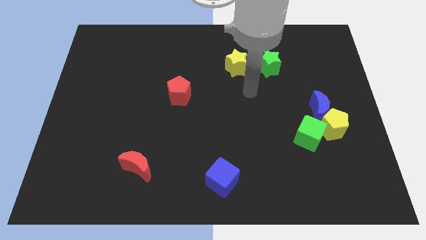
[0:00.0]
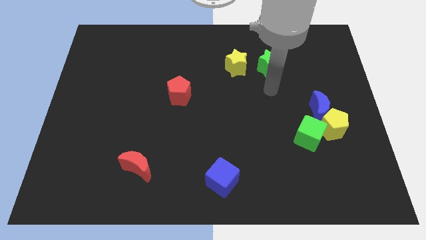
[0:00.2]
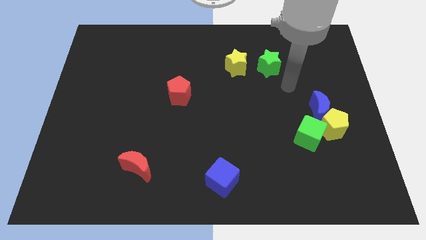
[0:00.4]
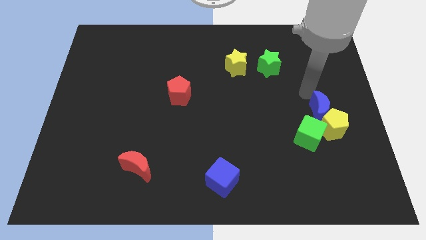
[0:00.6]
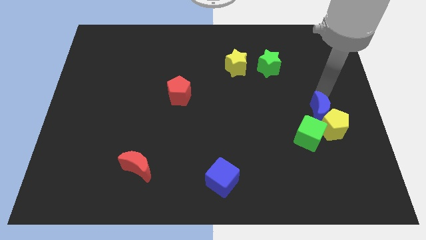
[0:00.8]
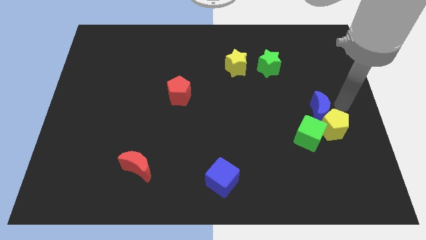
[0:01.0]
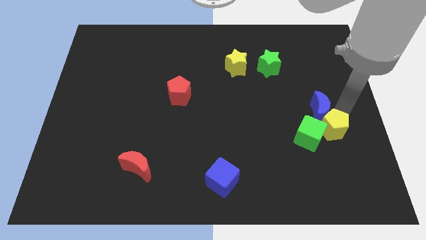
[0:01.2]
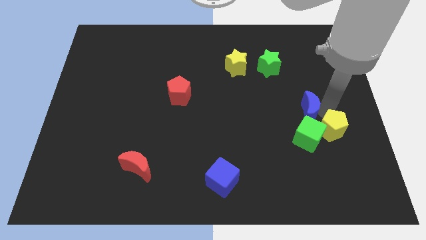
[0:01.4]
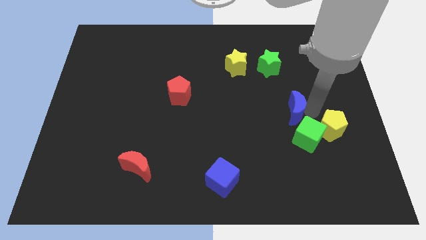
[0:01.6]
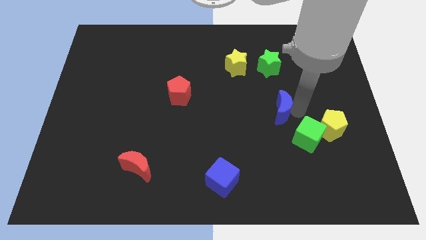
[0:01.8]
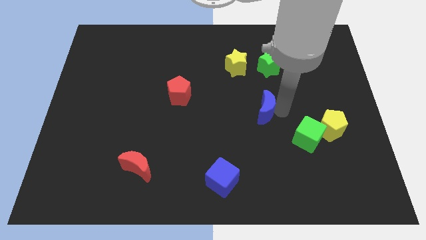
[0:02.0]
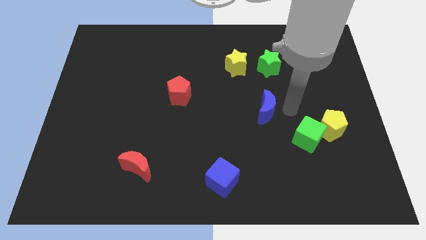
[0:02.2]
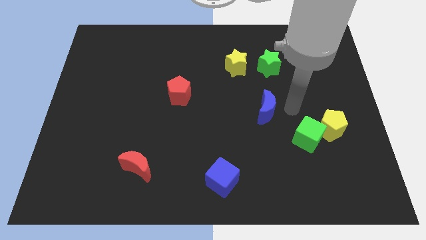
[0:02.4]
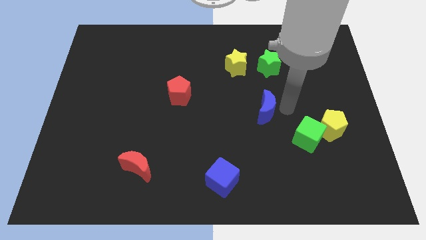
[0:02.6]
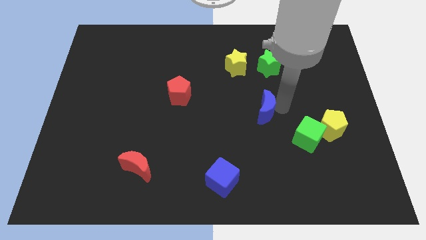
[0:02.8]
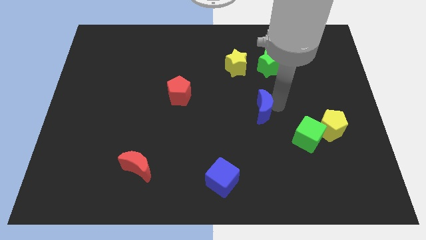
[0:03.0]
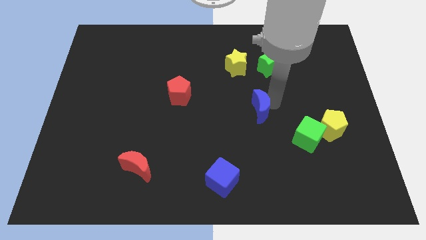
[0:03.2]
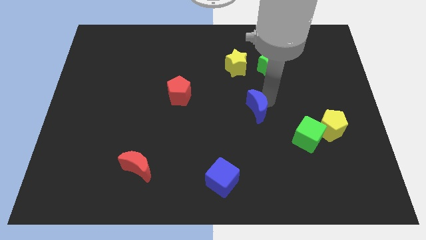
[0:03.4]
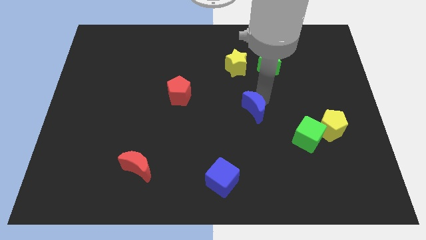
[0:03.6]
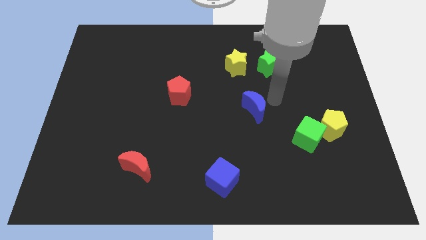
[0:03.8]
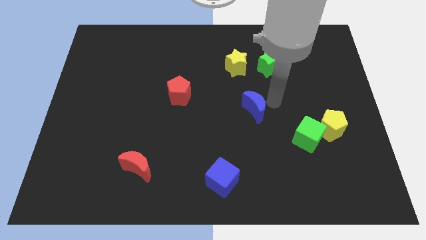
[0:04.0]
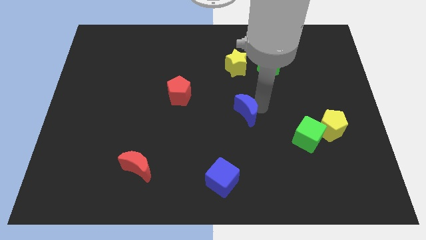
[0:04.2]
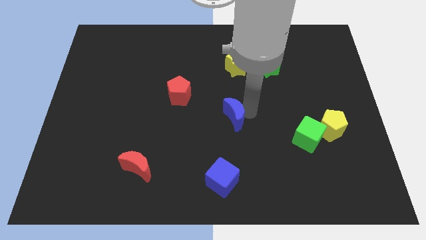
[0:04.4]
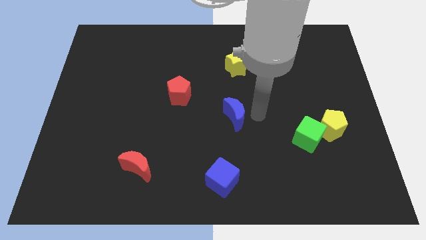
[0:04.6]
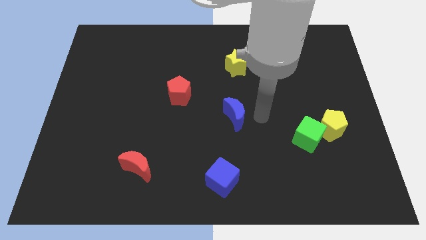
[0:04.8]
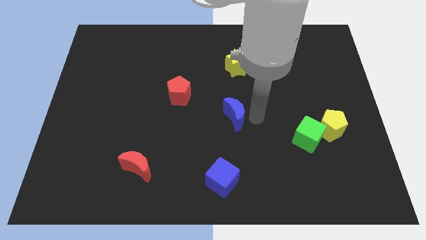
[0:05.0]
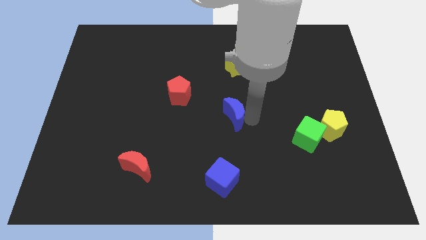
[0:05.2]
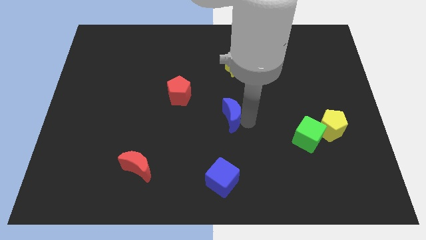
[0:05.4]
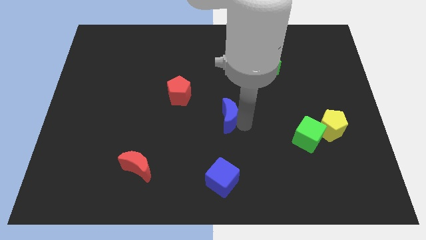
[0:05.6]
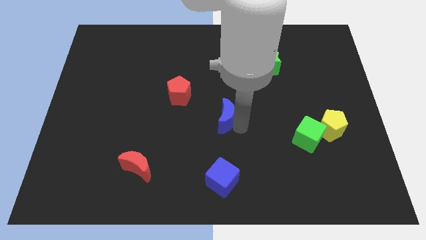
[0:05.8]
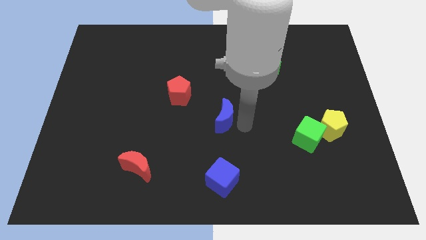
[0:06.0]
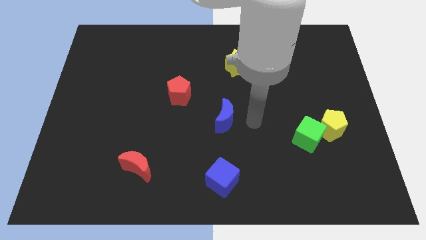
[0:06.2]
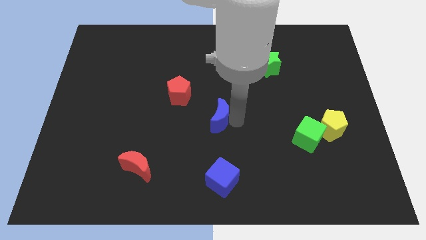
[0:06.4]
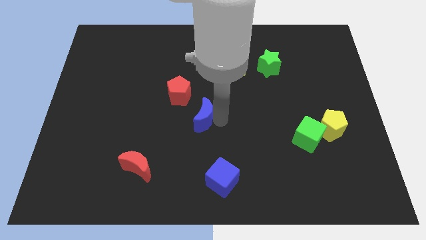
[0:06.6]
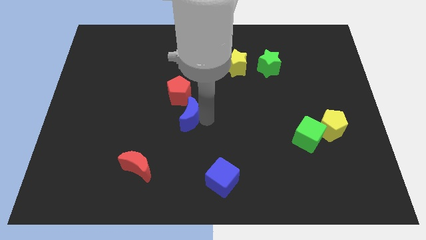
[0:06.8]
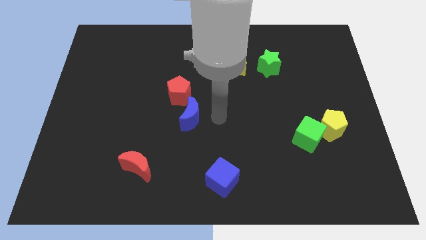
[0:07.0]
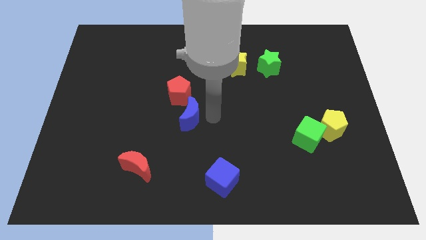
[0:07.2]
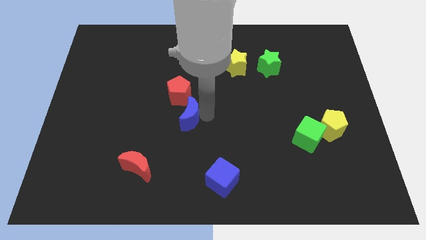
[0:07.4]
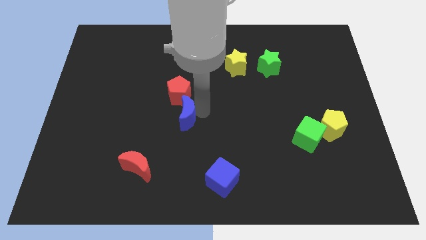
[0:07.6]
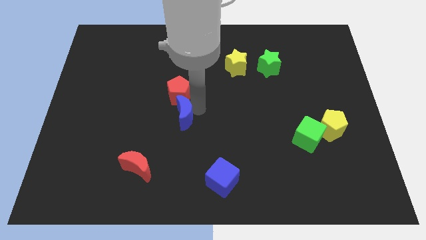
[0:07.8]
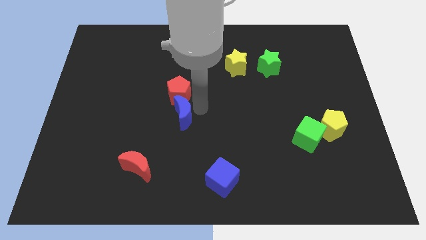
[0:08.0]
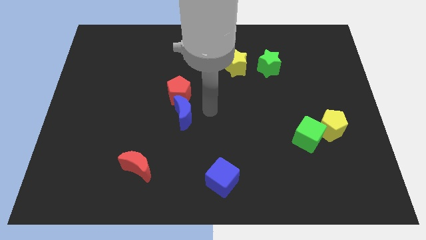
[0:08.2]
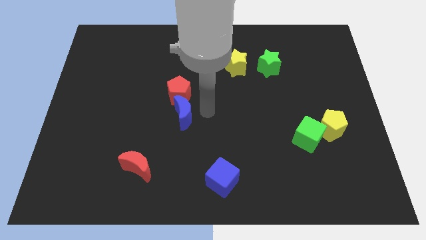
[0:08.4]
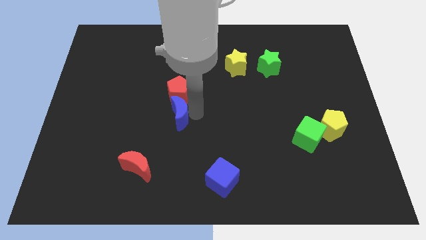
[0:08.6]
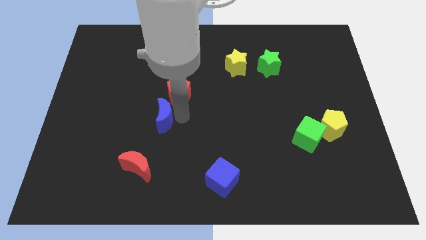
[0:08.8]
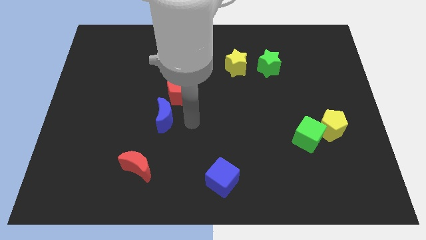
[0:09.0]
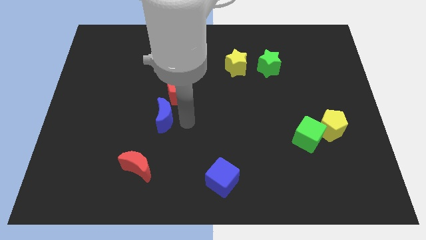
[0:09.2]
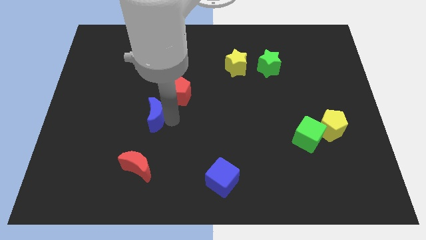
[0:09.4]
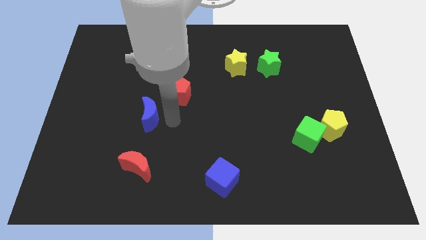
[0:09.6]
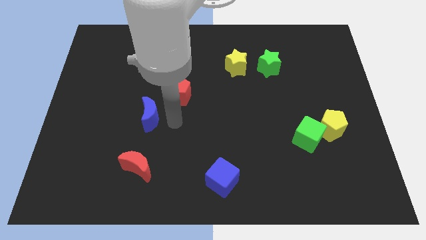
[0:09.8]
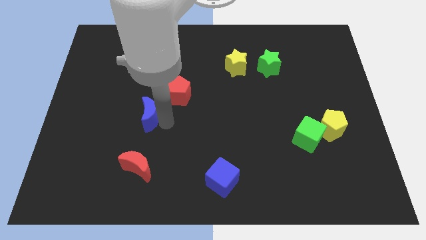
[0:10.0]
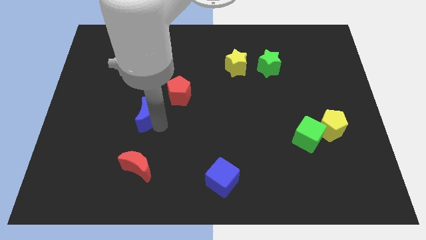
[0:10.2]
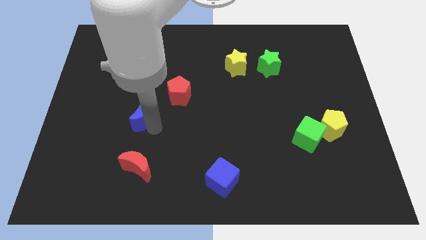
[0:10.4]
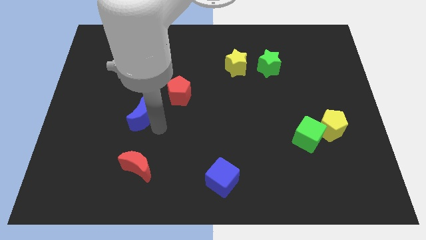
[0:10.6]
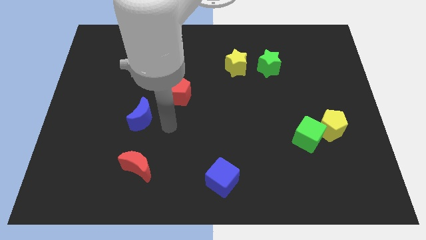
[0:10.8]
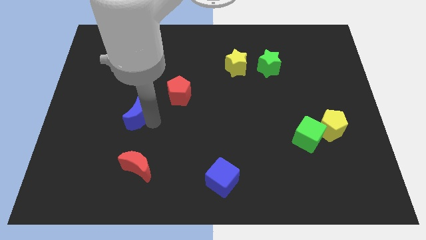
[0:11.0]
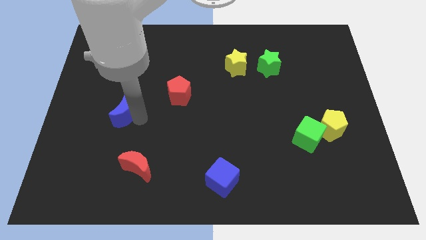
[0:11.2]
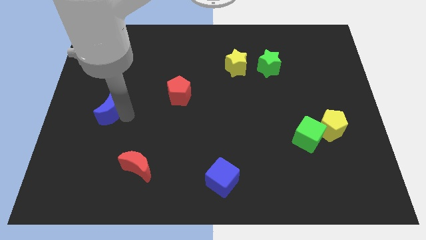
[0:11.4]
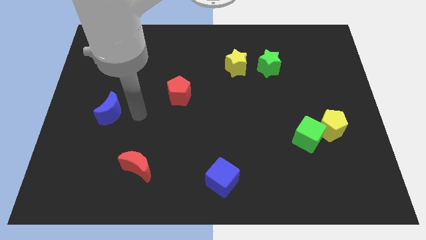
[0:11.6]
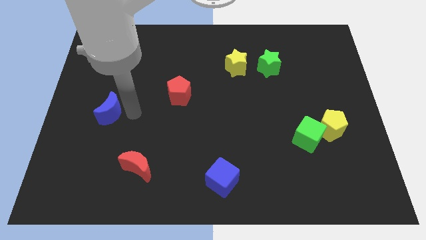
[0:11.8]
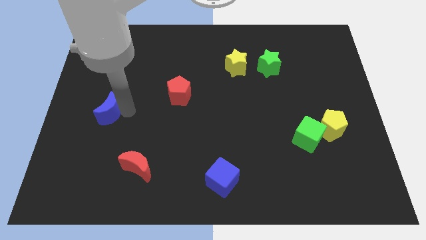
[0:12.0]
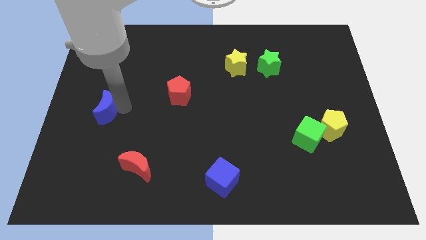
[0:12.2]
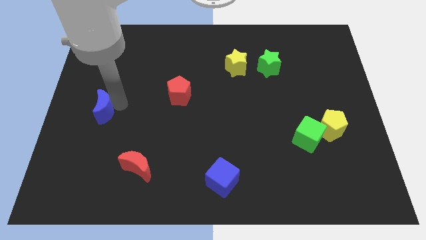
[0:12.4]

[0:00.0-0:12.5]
put the blue moon to the center left
